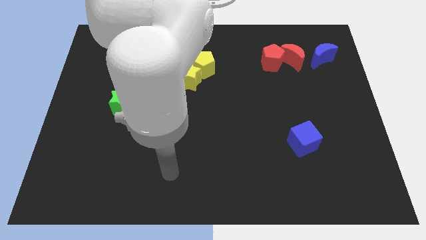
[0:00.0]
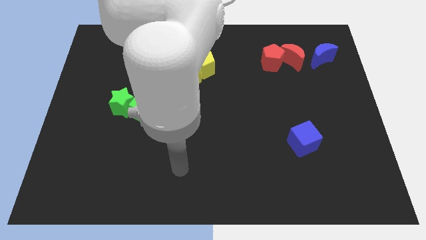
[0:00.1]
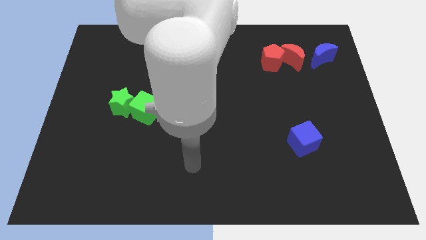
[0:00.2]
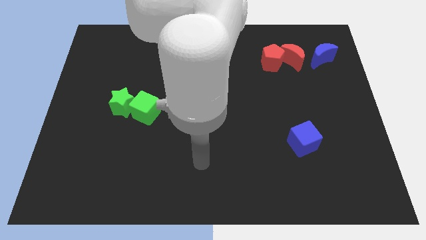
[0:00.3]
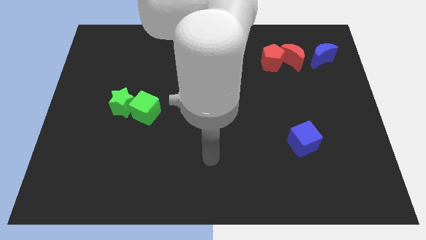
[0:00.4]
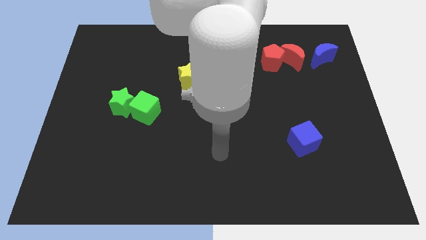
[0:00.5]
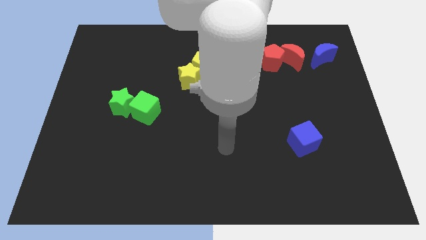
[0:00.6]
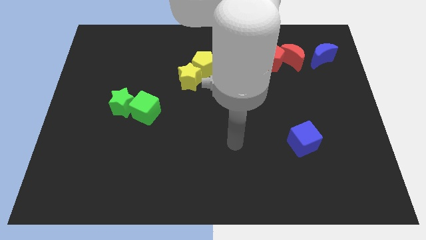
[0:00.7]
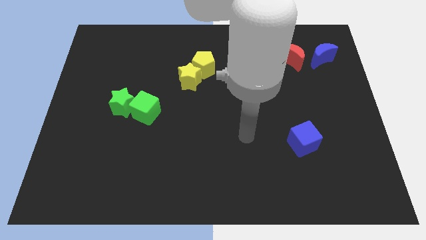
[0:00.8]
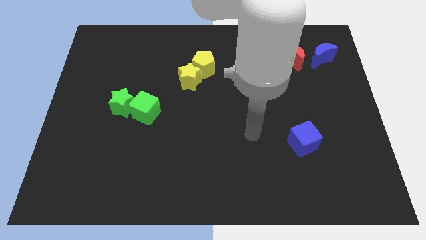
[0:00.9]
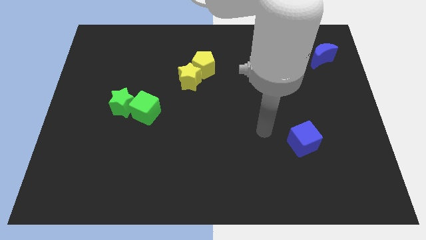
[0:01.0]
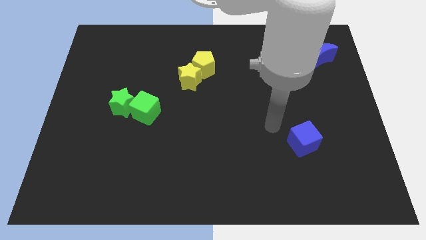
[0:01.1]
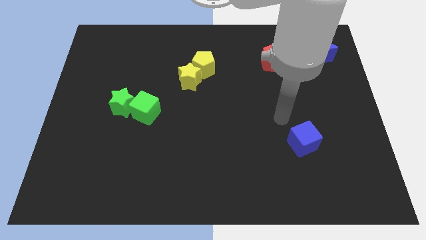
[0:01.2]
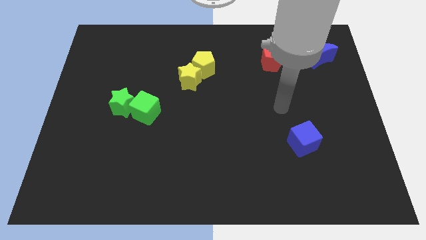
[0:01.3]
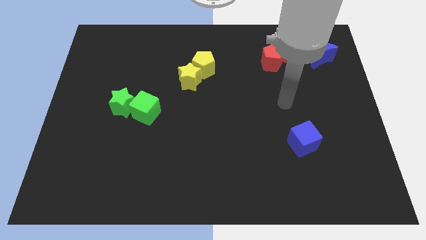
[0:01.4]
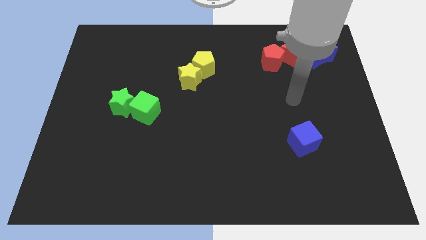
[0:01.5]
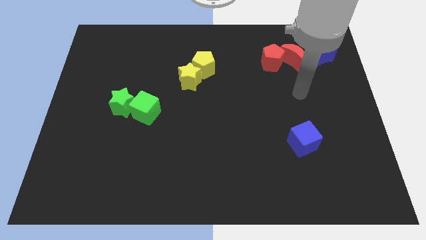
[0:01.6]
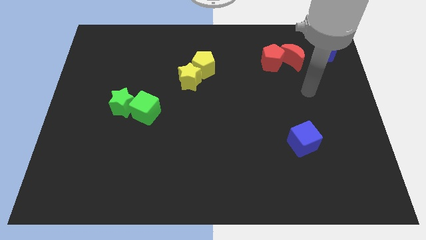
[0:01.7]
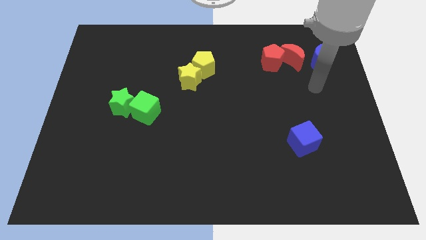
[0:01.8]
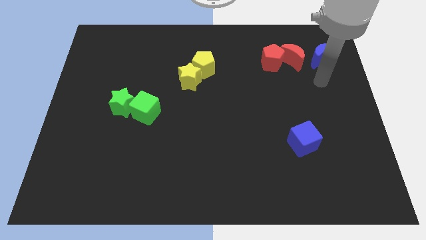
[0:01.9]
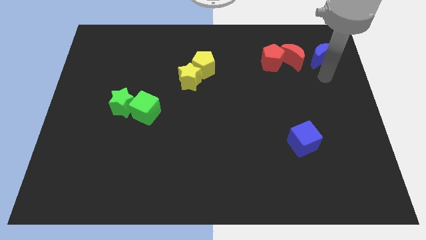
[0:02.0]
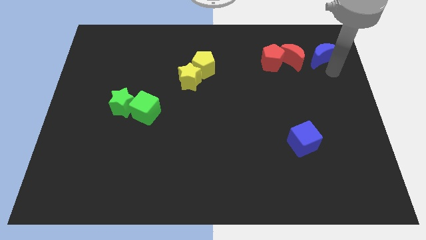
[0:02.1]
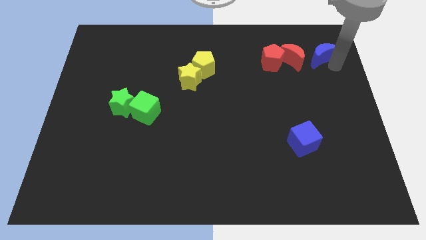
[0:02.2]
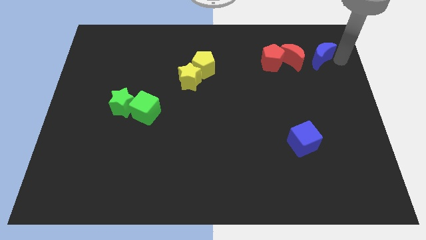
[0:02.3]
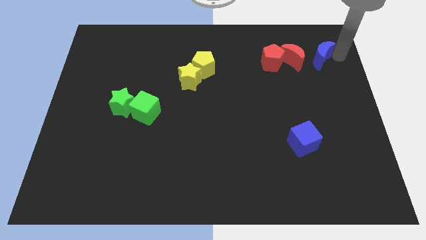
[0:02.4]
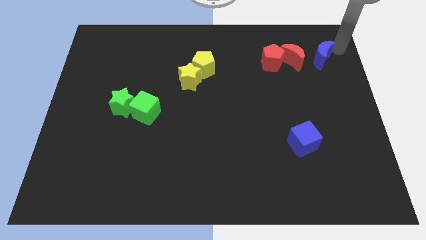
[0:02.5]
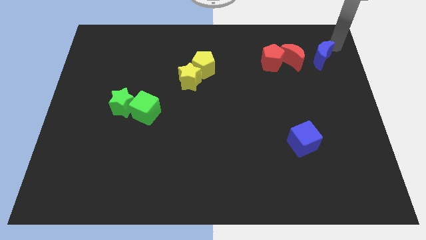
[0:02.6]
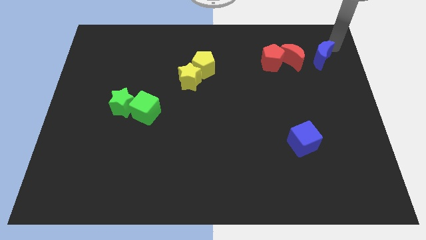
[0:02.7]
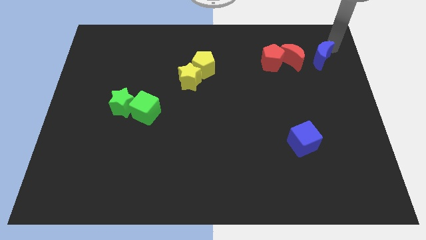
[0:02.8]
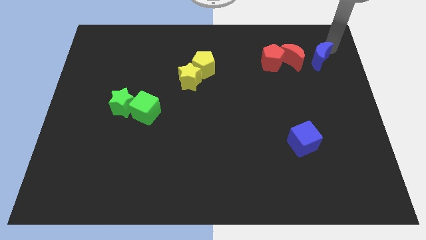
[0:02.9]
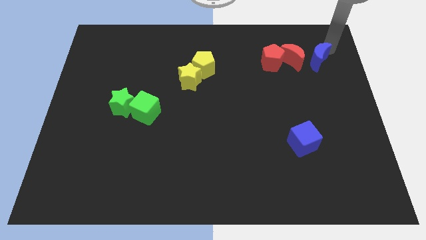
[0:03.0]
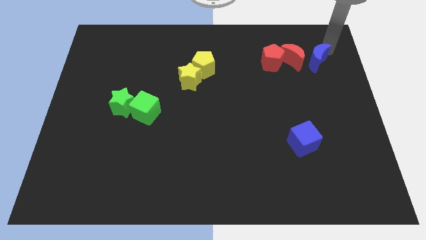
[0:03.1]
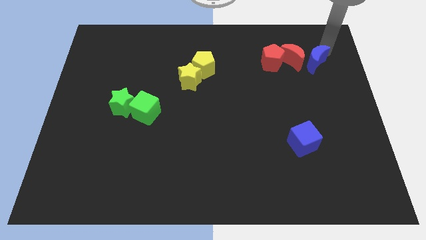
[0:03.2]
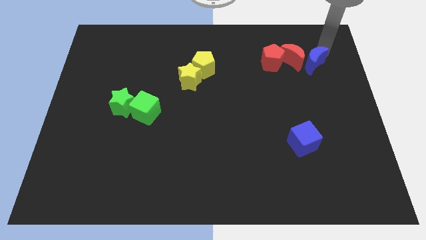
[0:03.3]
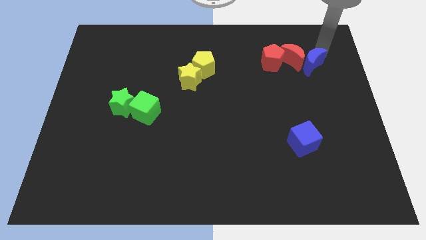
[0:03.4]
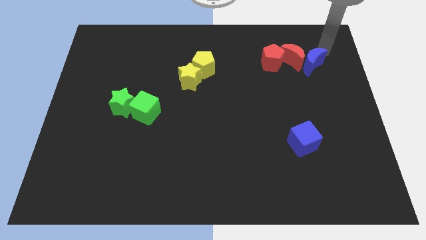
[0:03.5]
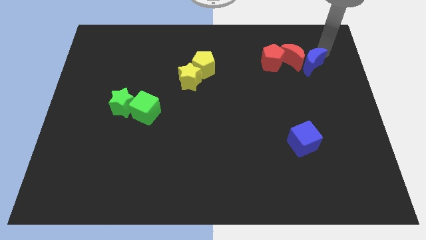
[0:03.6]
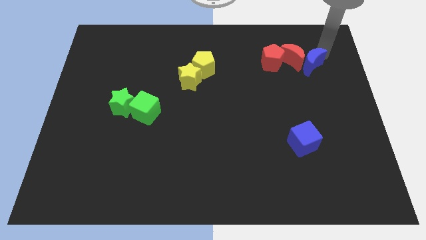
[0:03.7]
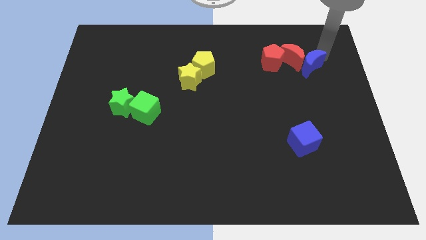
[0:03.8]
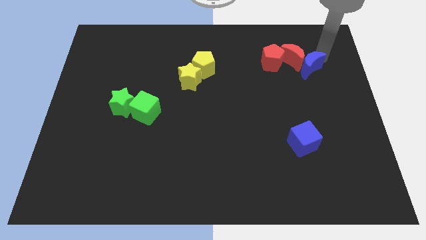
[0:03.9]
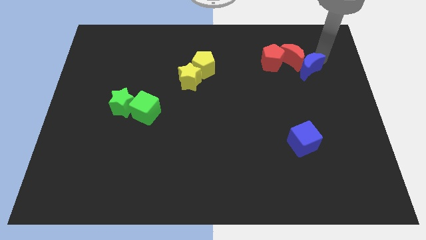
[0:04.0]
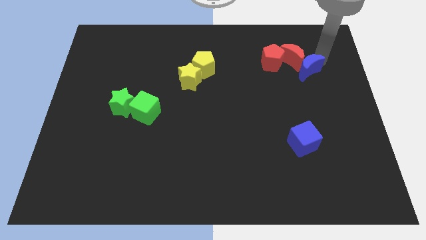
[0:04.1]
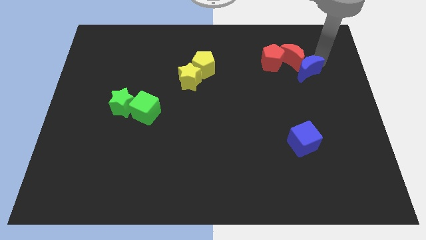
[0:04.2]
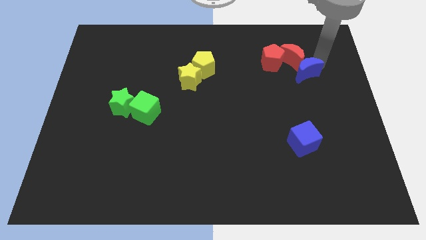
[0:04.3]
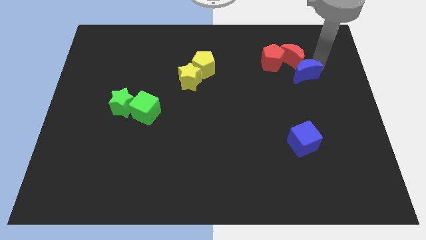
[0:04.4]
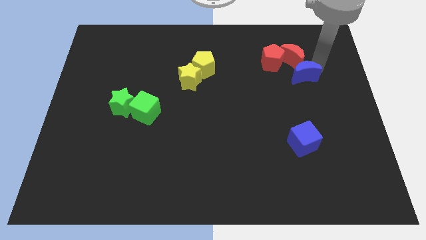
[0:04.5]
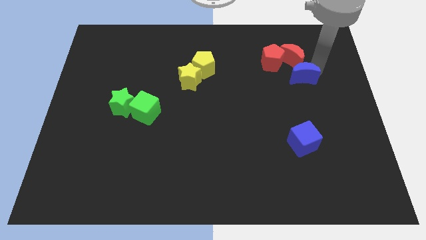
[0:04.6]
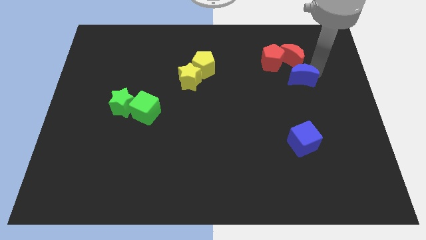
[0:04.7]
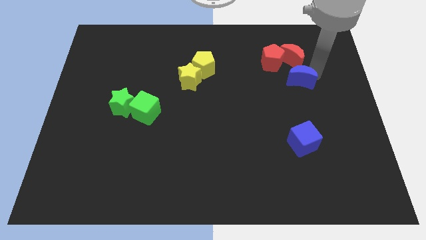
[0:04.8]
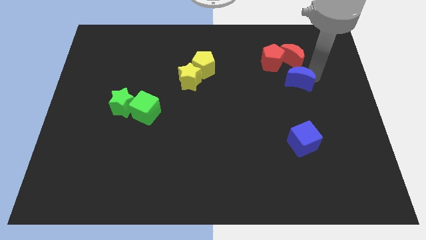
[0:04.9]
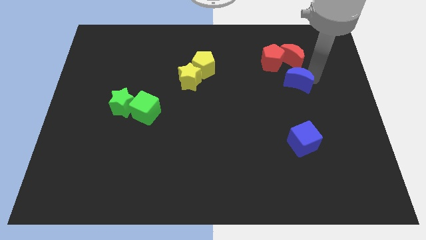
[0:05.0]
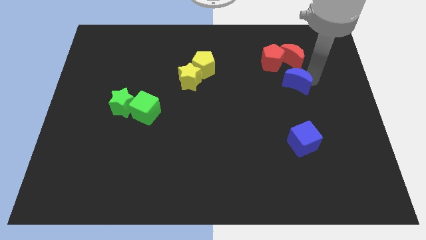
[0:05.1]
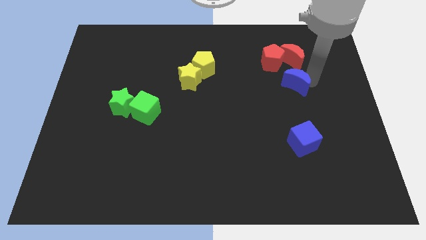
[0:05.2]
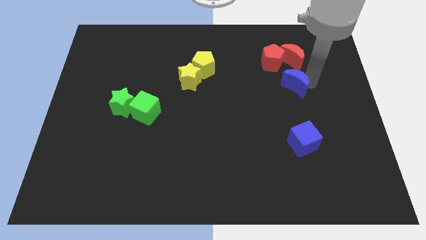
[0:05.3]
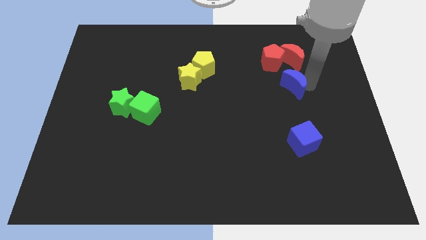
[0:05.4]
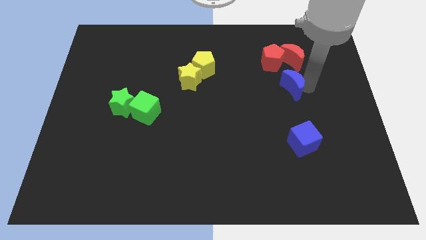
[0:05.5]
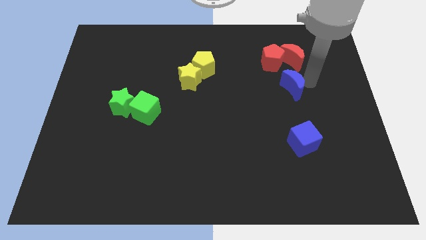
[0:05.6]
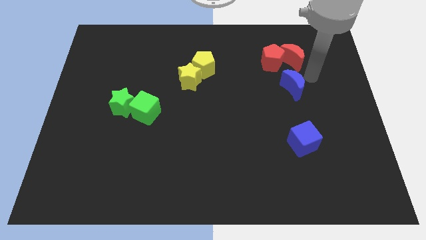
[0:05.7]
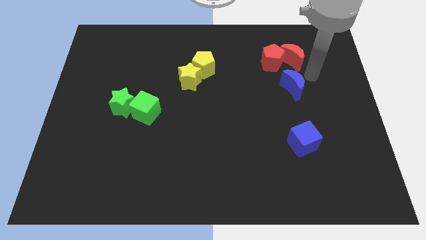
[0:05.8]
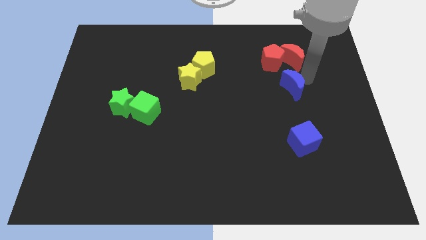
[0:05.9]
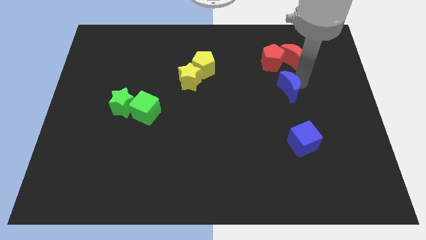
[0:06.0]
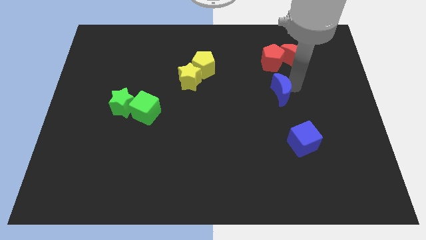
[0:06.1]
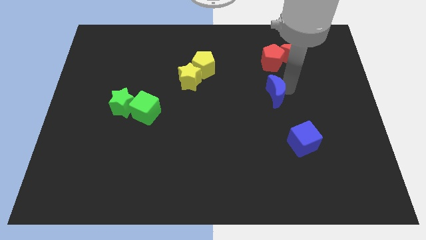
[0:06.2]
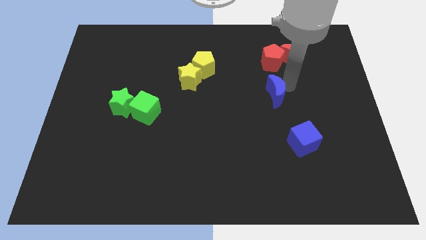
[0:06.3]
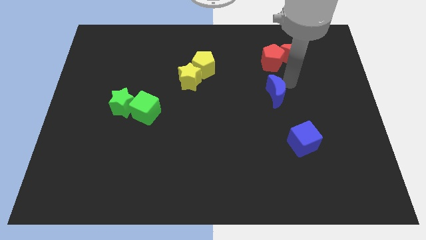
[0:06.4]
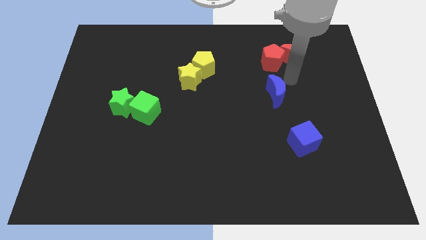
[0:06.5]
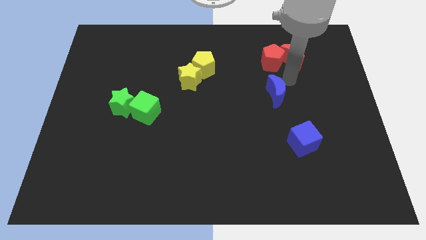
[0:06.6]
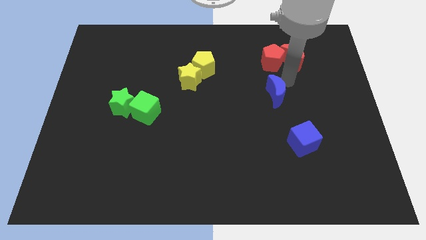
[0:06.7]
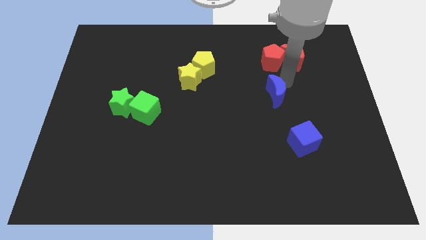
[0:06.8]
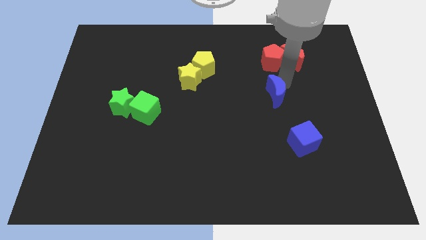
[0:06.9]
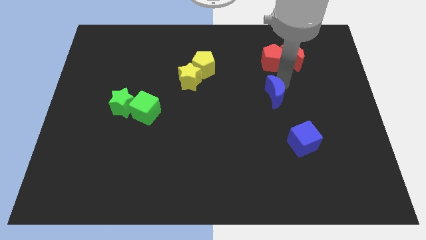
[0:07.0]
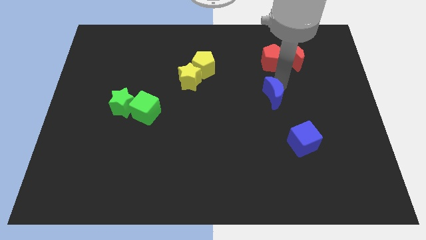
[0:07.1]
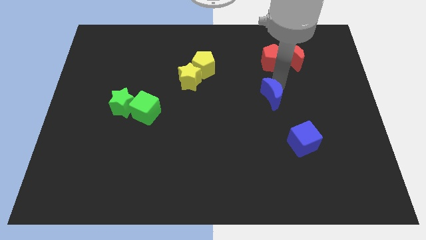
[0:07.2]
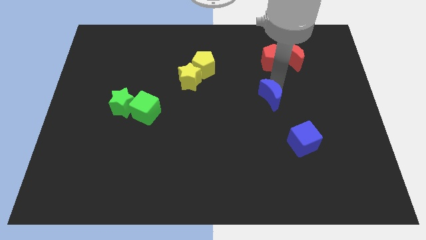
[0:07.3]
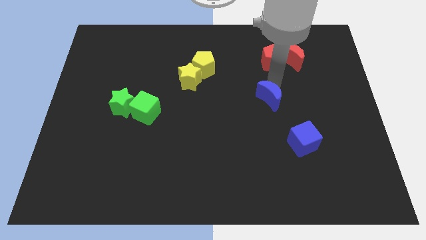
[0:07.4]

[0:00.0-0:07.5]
move the blue moon downwards and then left

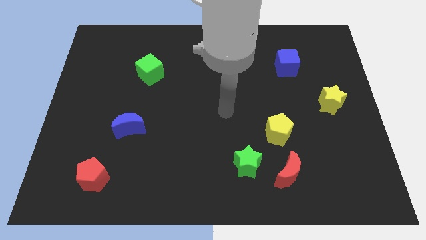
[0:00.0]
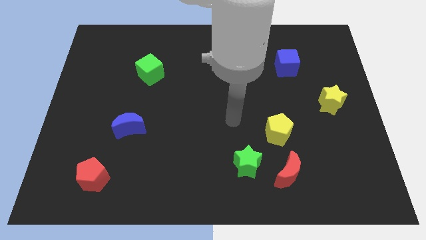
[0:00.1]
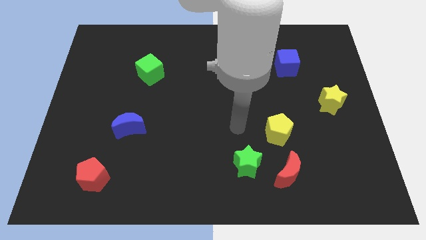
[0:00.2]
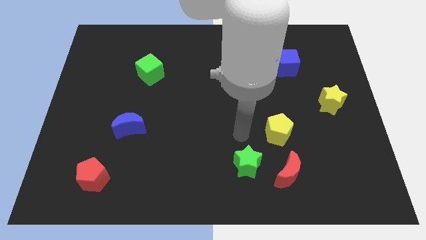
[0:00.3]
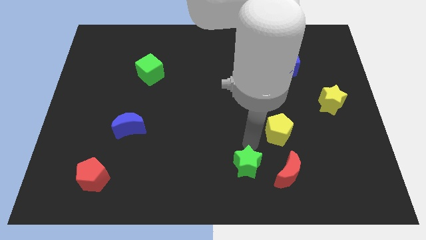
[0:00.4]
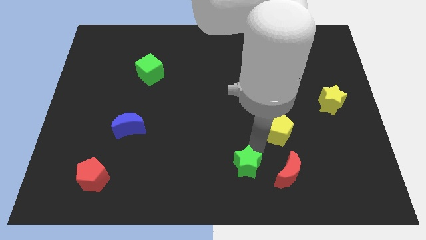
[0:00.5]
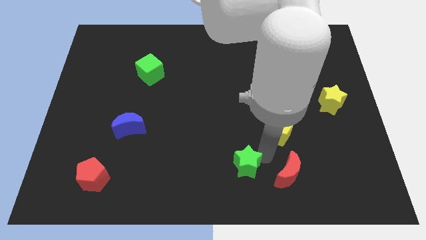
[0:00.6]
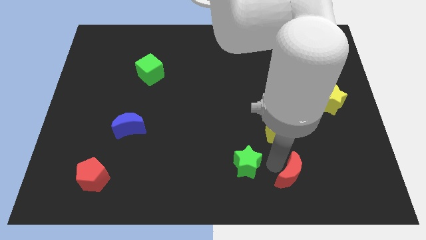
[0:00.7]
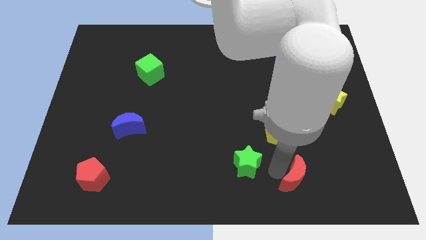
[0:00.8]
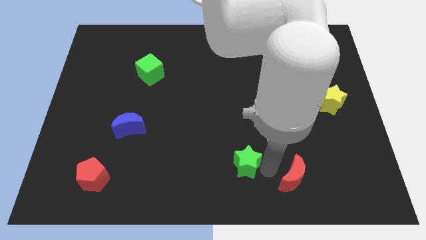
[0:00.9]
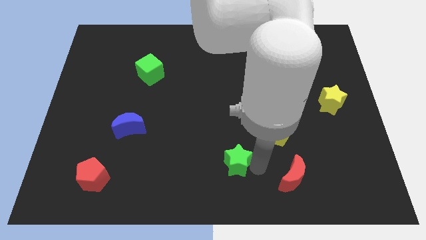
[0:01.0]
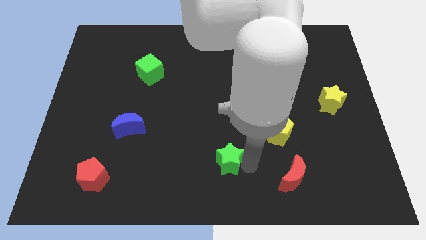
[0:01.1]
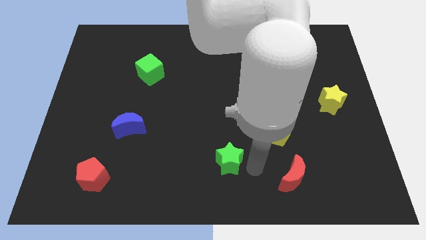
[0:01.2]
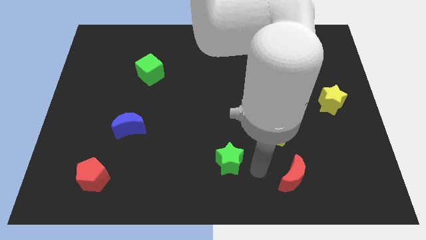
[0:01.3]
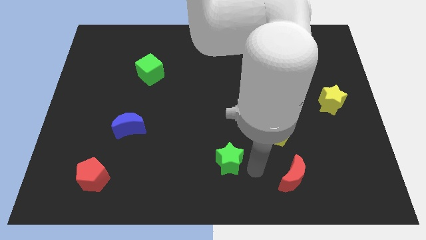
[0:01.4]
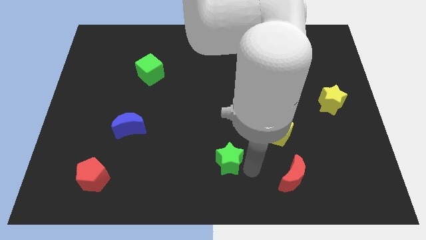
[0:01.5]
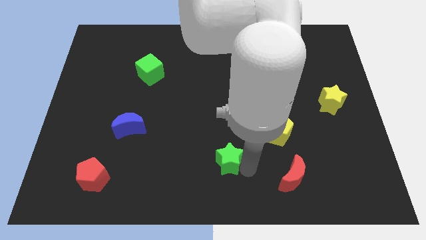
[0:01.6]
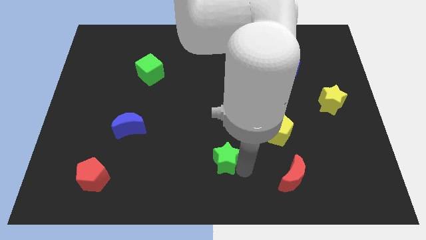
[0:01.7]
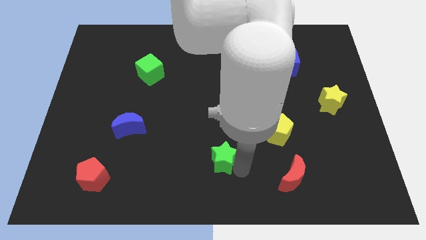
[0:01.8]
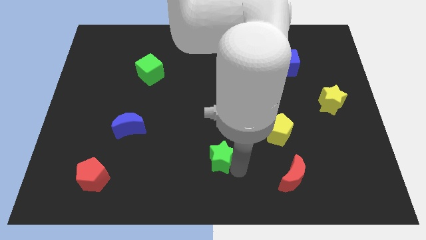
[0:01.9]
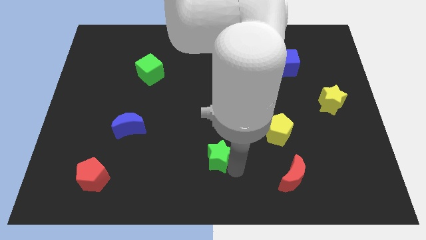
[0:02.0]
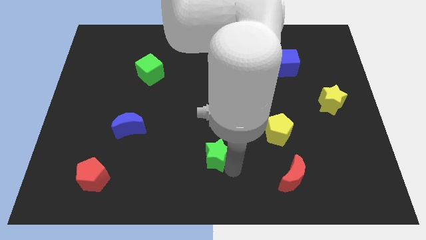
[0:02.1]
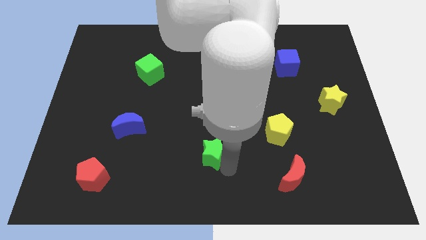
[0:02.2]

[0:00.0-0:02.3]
slightly move the green star to the left
